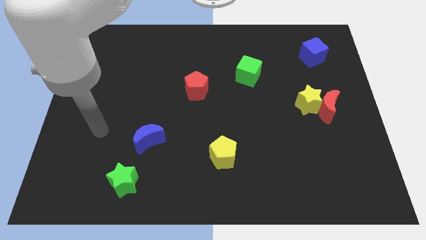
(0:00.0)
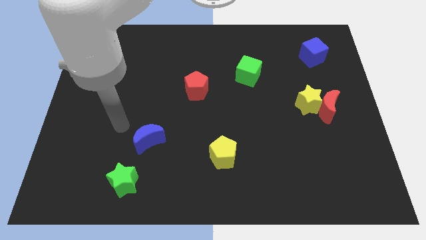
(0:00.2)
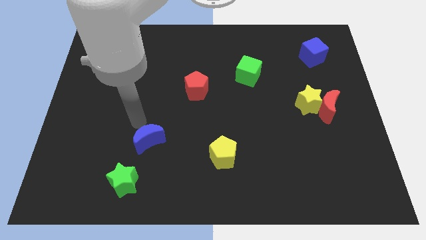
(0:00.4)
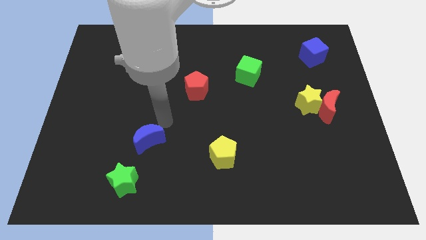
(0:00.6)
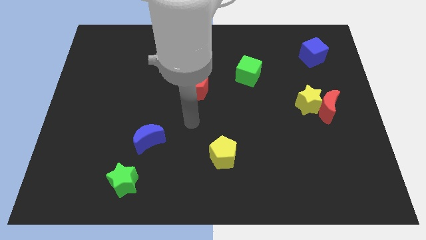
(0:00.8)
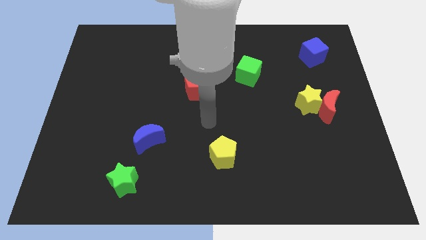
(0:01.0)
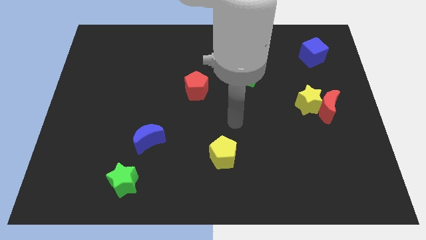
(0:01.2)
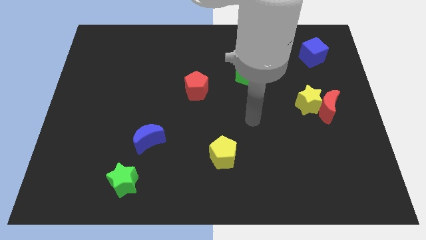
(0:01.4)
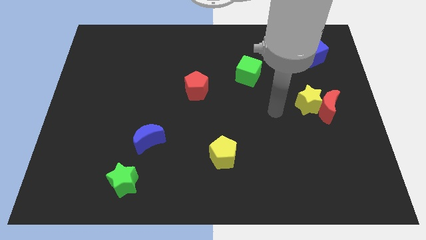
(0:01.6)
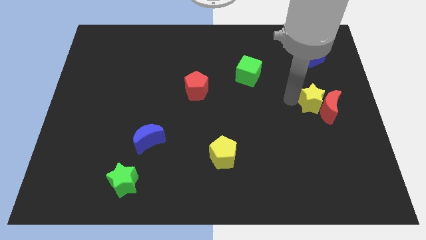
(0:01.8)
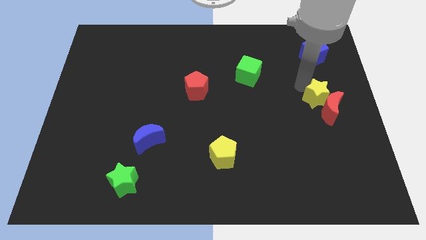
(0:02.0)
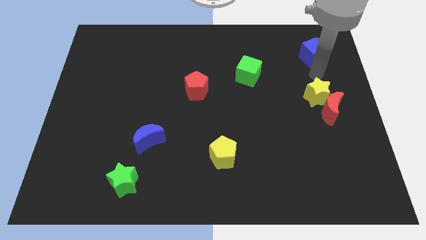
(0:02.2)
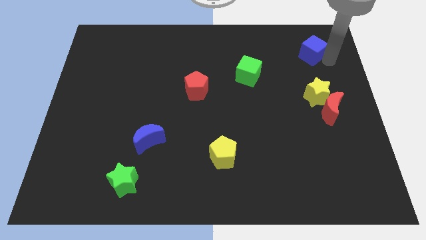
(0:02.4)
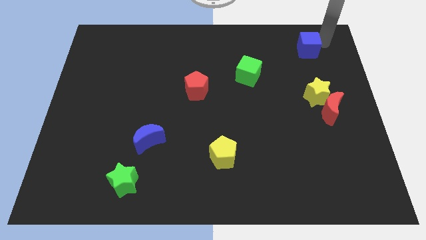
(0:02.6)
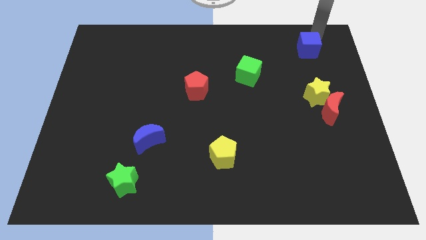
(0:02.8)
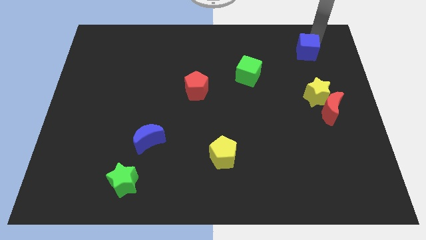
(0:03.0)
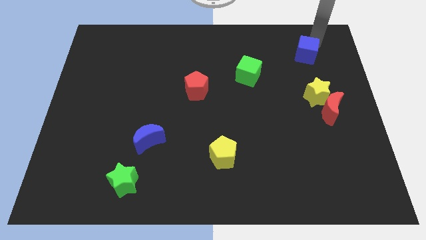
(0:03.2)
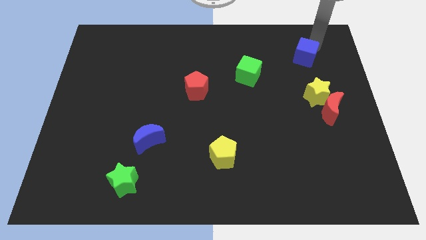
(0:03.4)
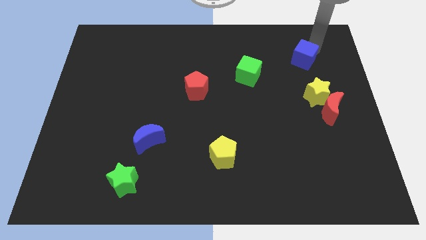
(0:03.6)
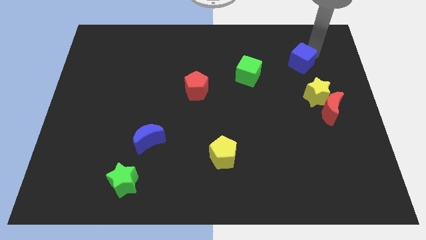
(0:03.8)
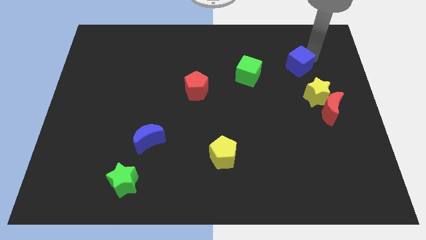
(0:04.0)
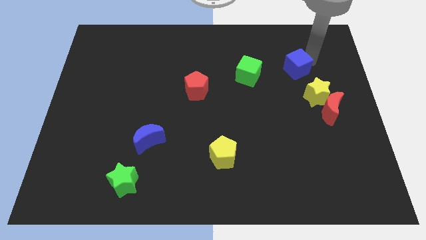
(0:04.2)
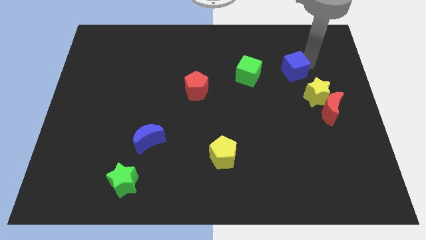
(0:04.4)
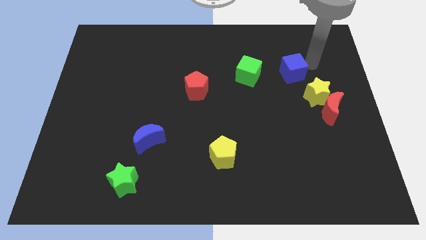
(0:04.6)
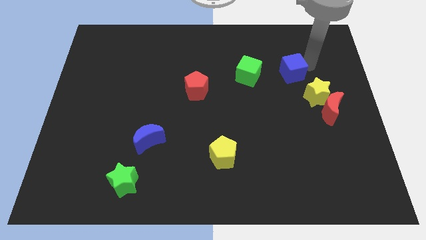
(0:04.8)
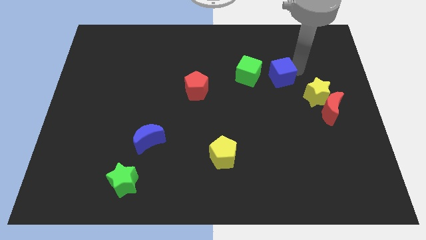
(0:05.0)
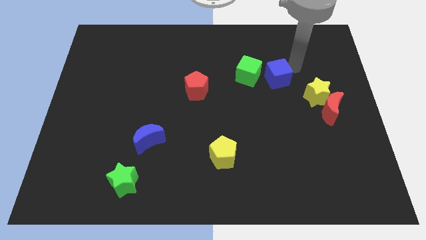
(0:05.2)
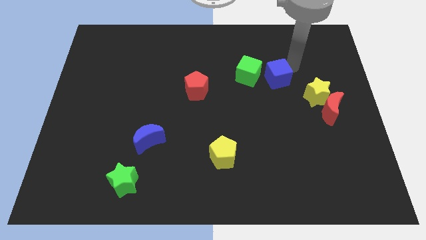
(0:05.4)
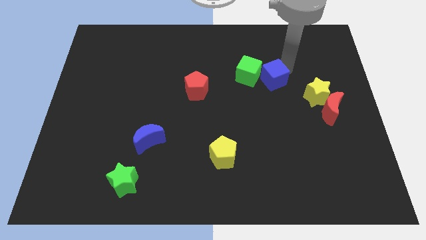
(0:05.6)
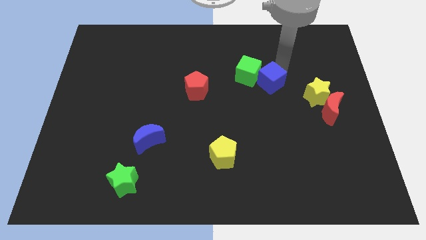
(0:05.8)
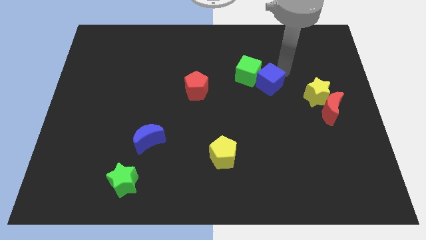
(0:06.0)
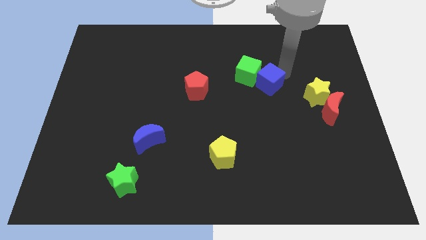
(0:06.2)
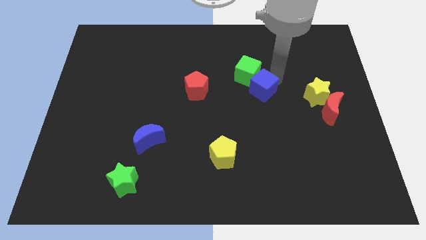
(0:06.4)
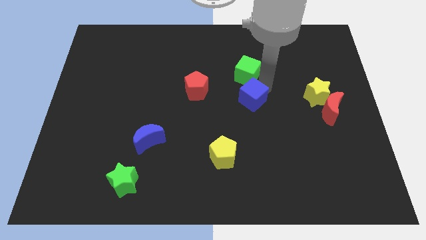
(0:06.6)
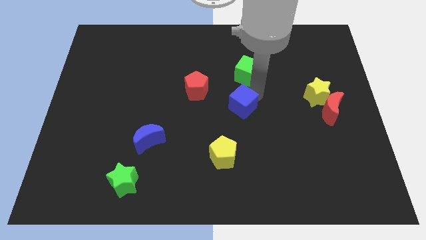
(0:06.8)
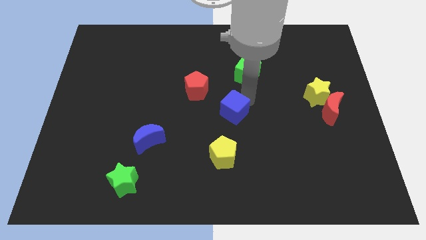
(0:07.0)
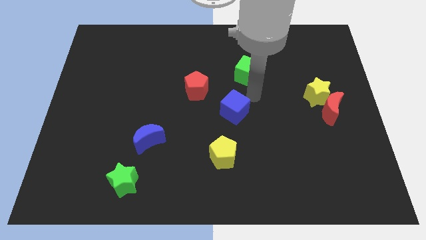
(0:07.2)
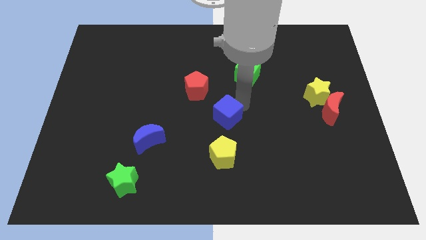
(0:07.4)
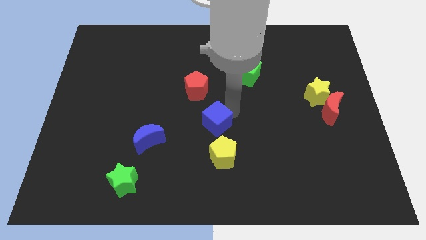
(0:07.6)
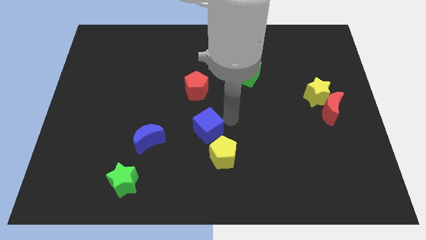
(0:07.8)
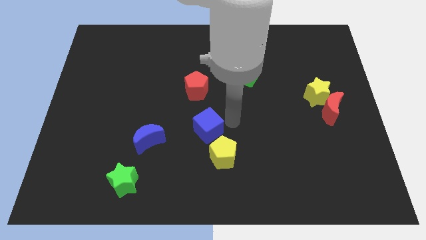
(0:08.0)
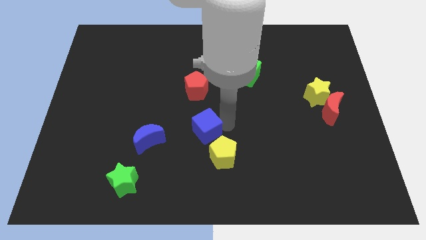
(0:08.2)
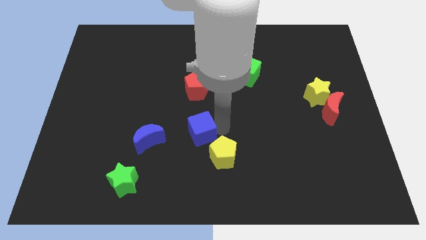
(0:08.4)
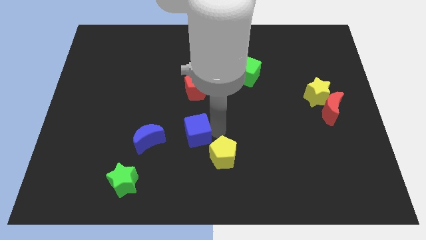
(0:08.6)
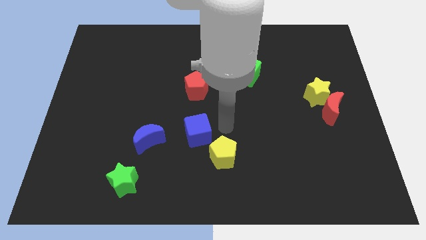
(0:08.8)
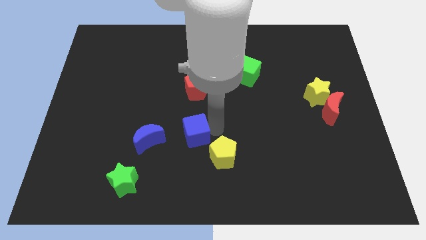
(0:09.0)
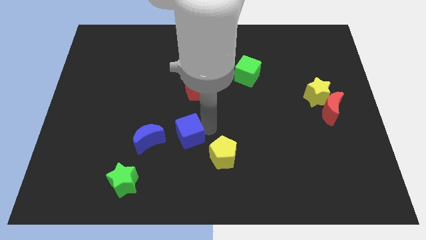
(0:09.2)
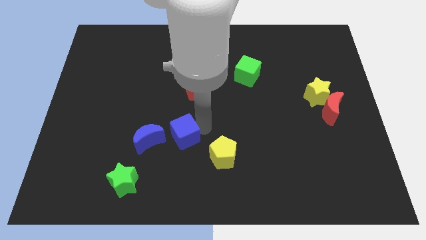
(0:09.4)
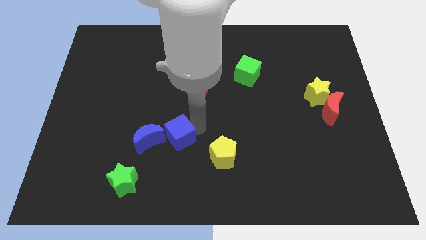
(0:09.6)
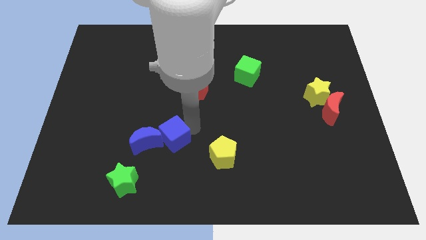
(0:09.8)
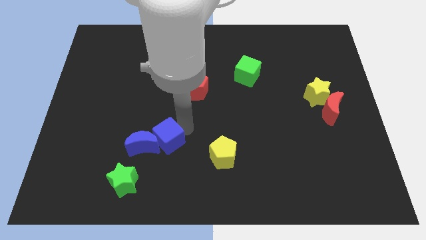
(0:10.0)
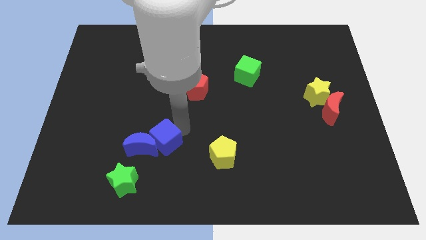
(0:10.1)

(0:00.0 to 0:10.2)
slide the blue cube diagonally up and to the right of the green star
